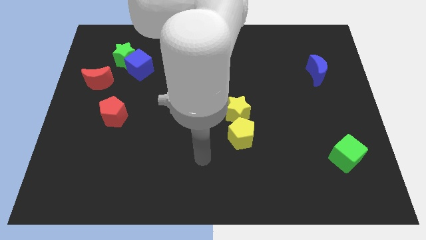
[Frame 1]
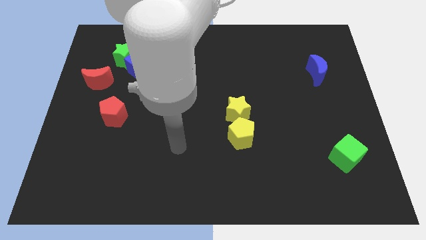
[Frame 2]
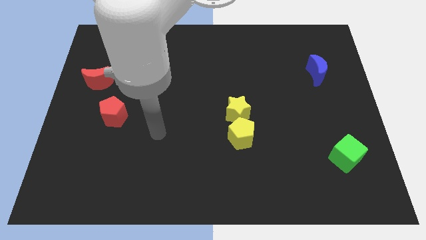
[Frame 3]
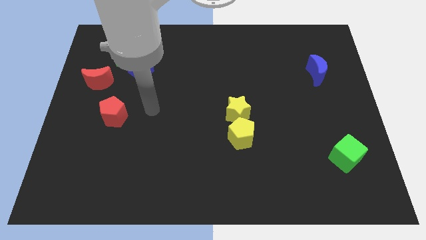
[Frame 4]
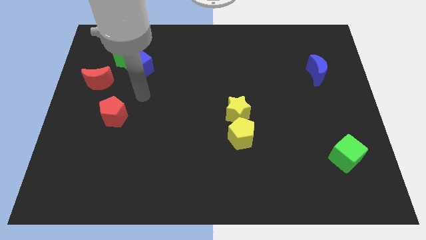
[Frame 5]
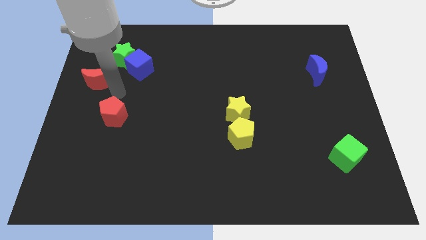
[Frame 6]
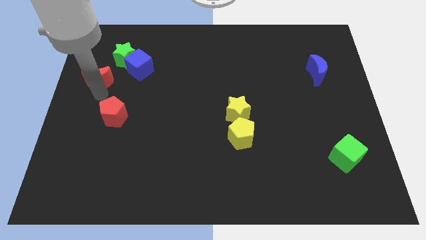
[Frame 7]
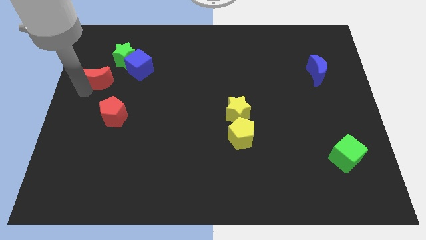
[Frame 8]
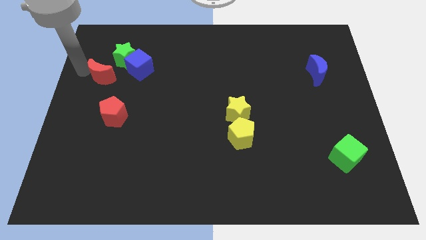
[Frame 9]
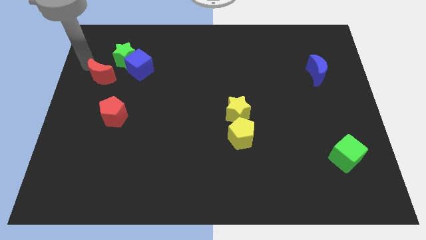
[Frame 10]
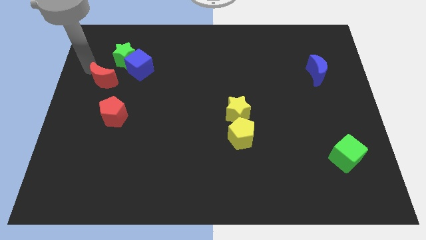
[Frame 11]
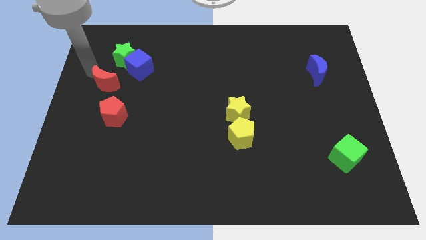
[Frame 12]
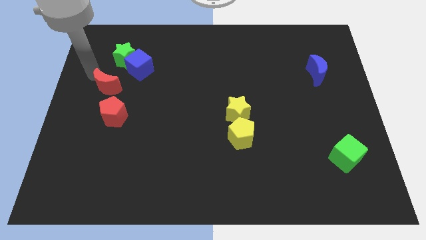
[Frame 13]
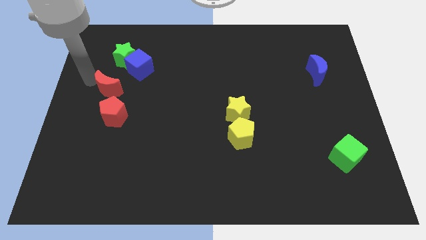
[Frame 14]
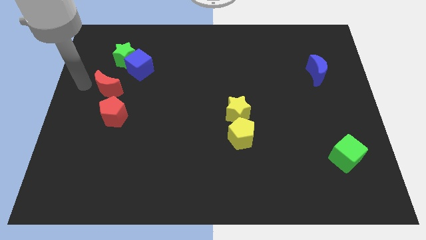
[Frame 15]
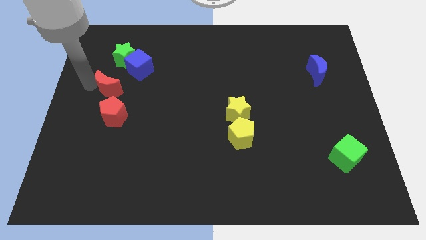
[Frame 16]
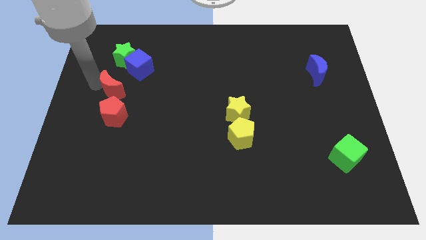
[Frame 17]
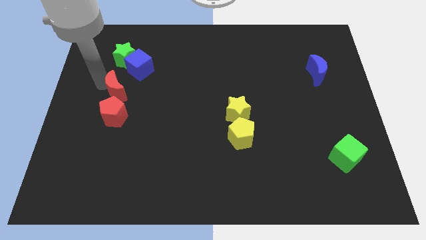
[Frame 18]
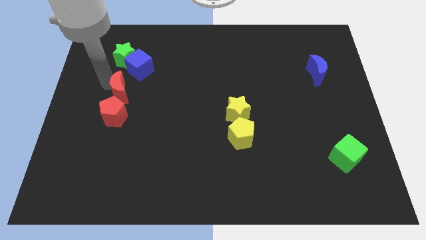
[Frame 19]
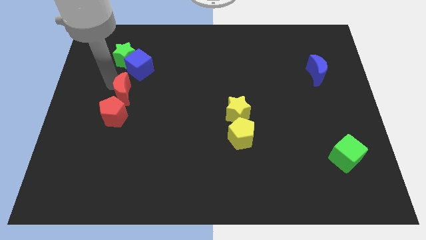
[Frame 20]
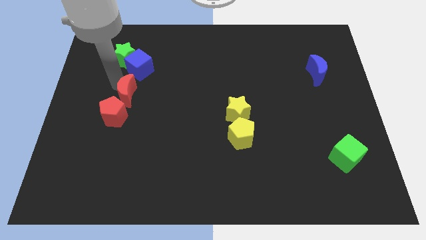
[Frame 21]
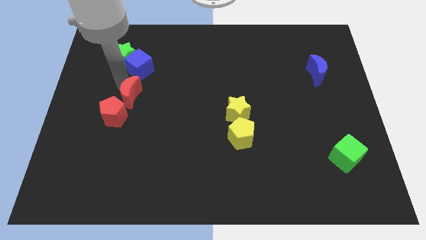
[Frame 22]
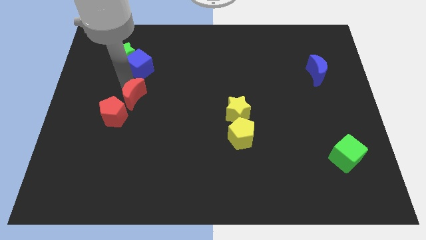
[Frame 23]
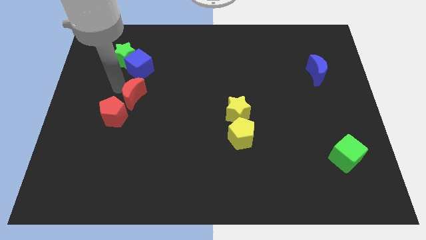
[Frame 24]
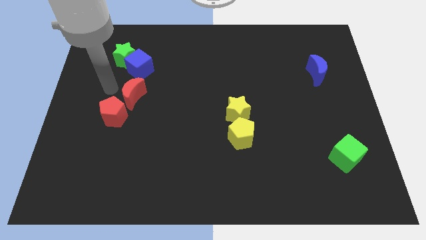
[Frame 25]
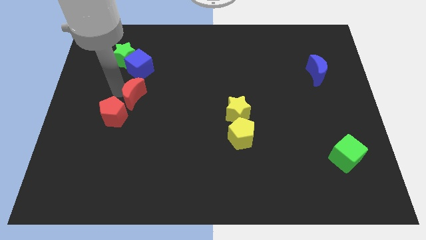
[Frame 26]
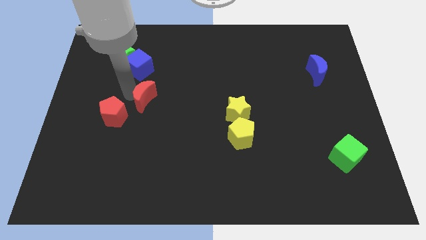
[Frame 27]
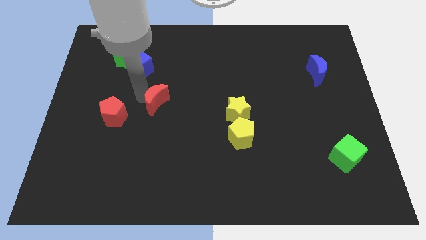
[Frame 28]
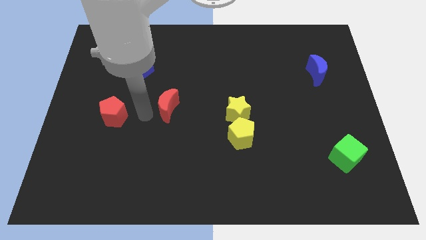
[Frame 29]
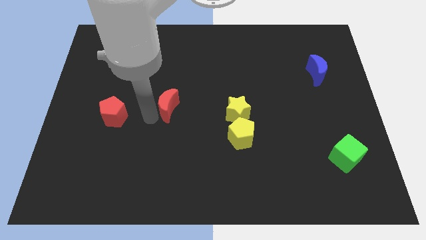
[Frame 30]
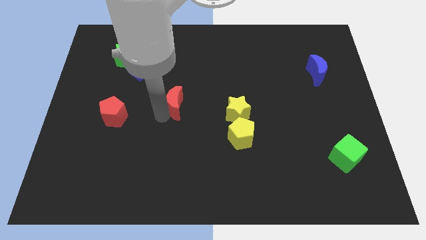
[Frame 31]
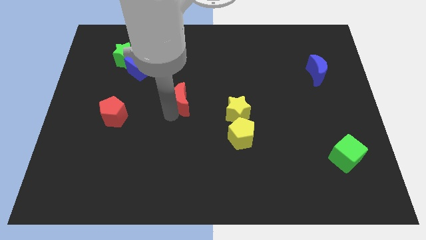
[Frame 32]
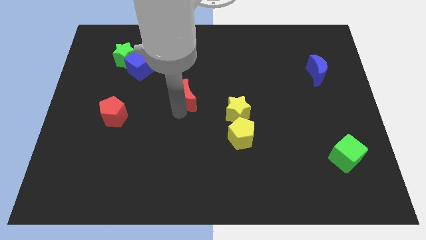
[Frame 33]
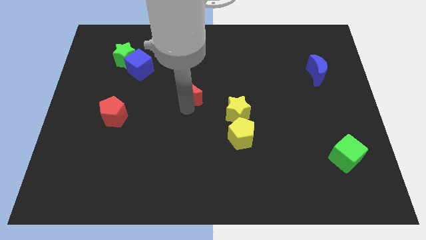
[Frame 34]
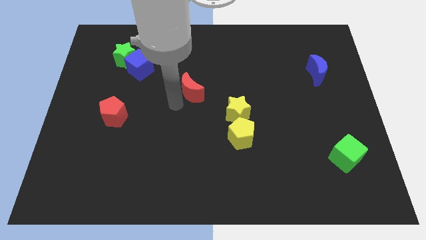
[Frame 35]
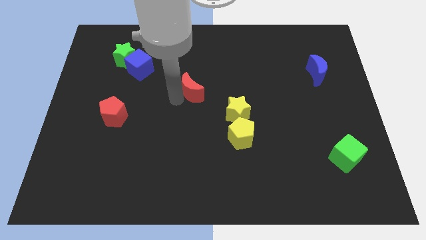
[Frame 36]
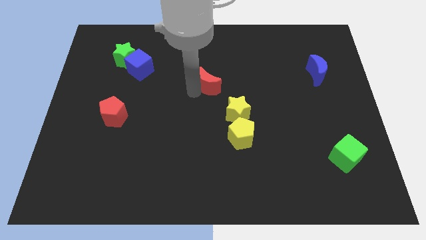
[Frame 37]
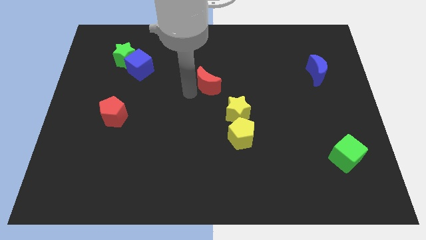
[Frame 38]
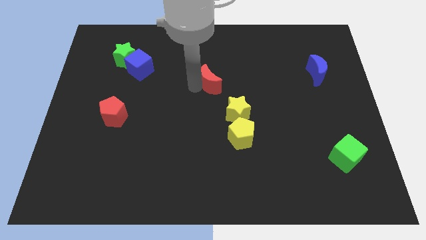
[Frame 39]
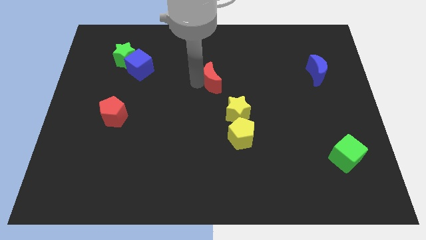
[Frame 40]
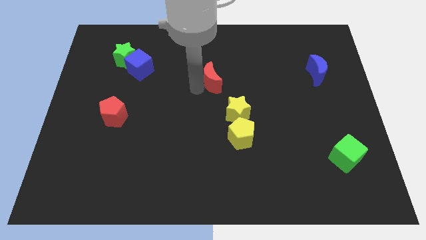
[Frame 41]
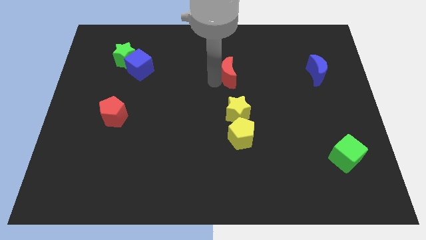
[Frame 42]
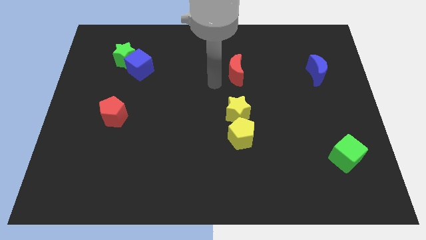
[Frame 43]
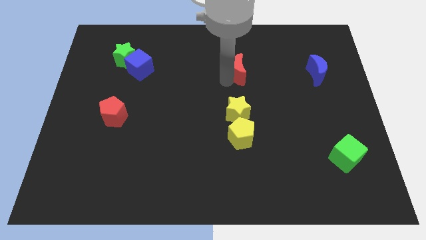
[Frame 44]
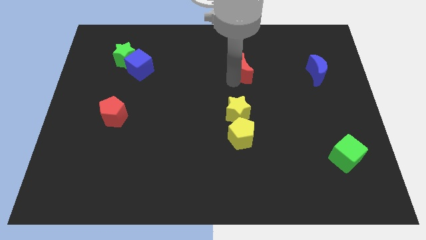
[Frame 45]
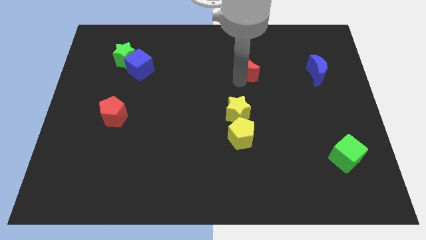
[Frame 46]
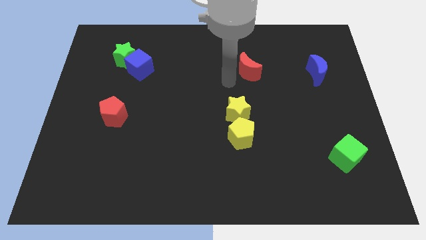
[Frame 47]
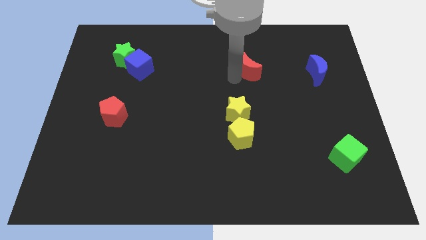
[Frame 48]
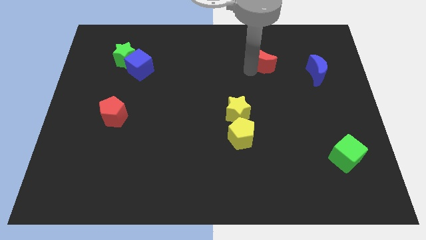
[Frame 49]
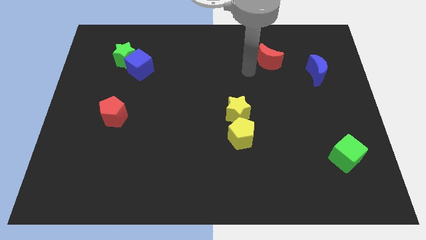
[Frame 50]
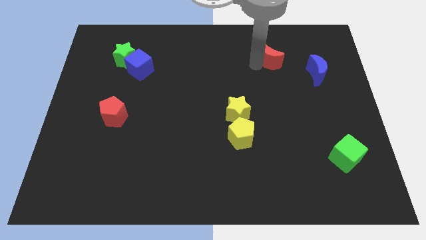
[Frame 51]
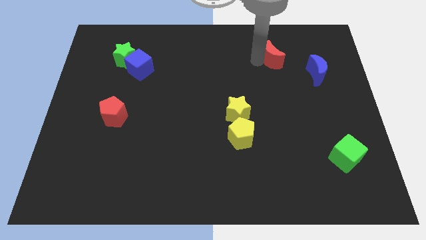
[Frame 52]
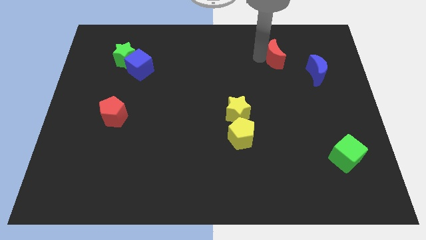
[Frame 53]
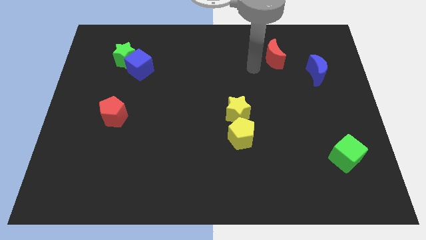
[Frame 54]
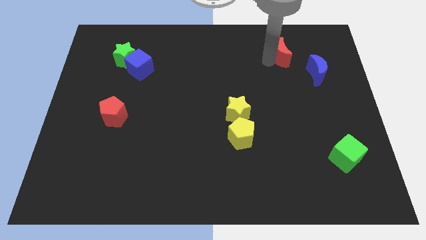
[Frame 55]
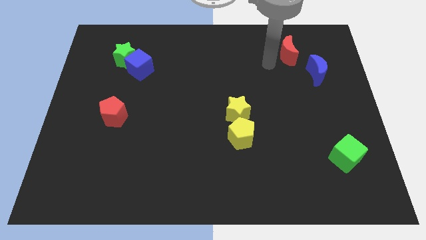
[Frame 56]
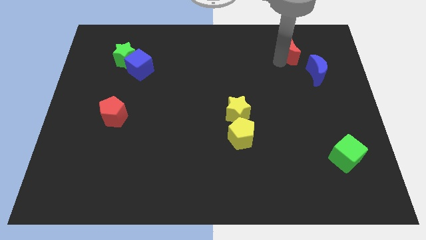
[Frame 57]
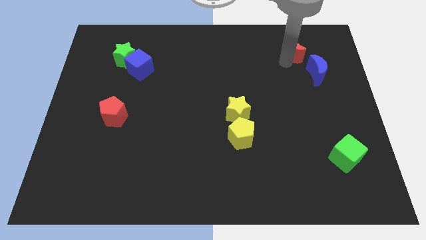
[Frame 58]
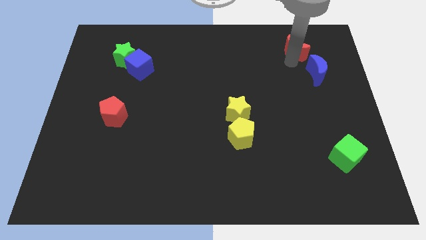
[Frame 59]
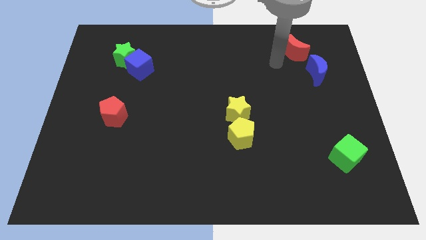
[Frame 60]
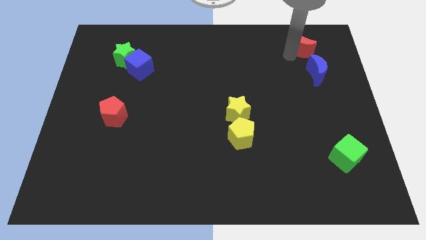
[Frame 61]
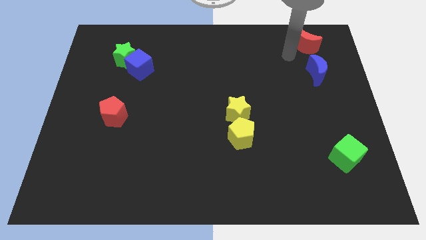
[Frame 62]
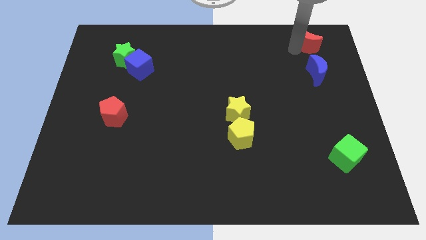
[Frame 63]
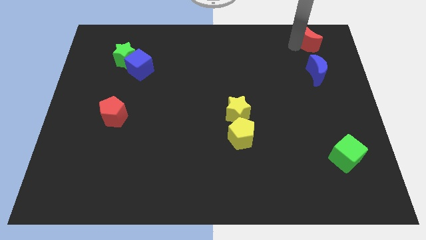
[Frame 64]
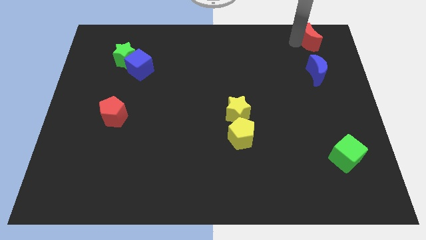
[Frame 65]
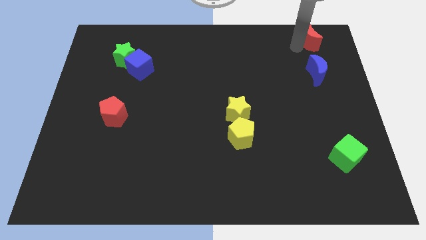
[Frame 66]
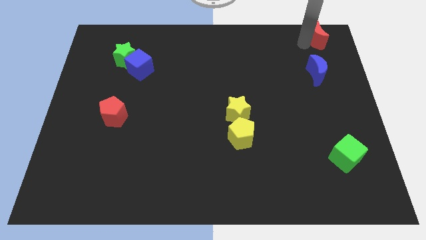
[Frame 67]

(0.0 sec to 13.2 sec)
slide the red moon to the upper right corner

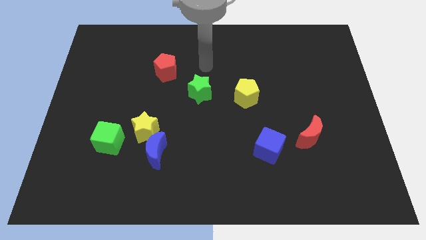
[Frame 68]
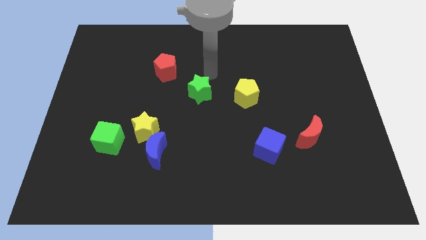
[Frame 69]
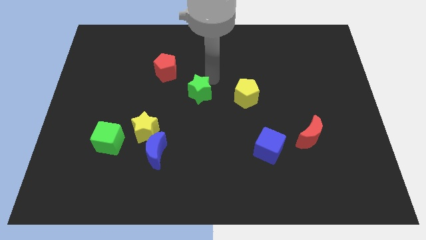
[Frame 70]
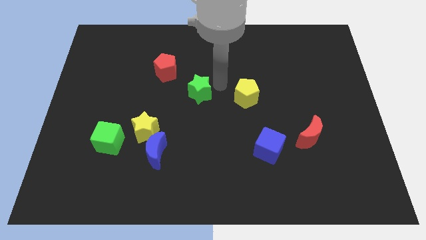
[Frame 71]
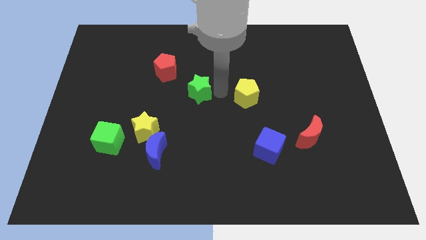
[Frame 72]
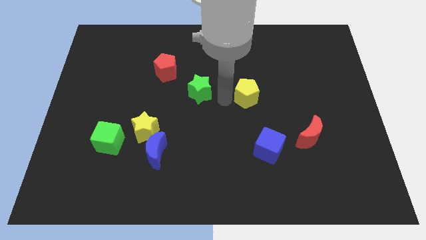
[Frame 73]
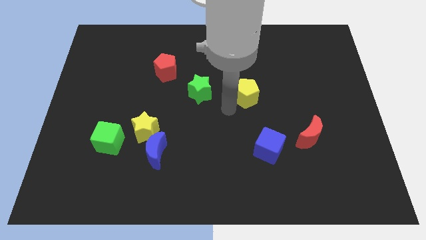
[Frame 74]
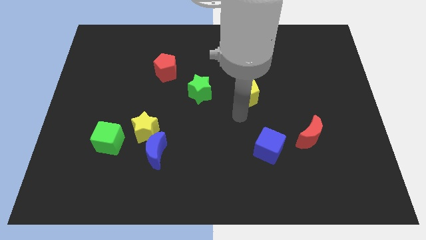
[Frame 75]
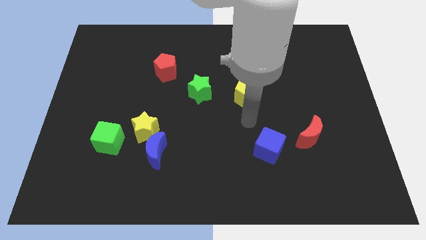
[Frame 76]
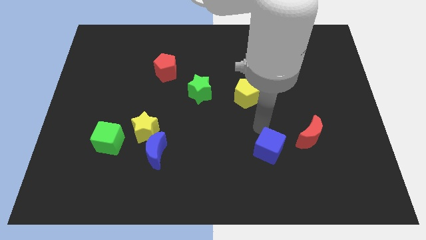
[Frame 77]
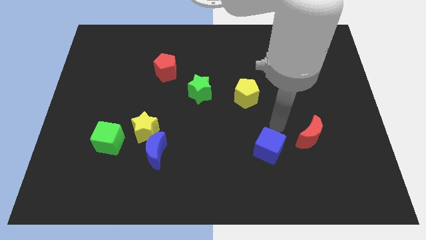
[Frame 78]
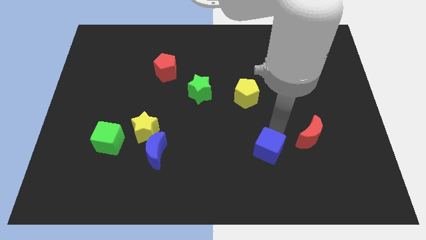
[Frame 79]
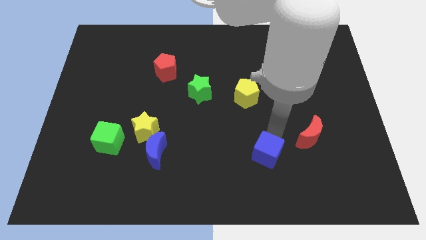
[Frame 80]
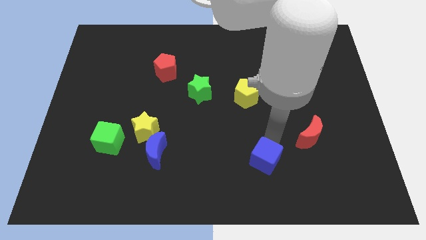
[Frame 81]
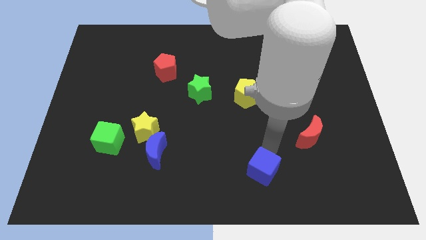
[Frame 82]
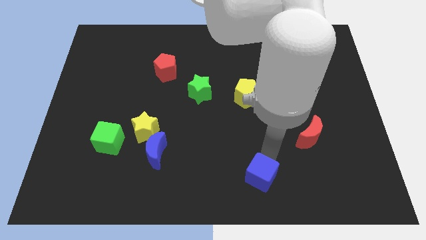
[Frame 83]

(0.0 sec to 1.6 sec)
put the blue cube to the bottom side
